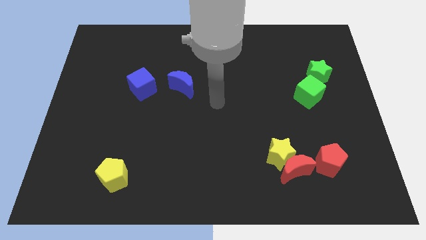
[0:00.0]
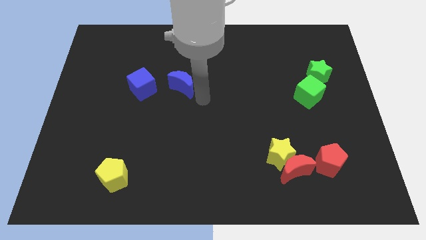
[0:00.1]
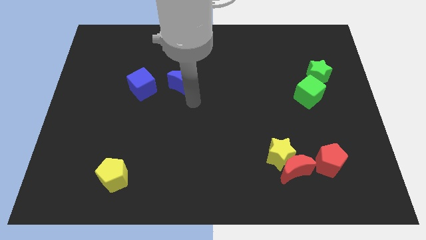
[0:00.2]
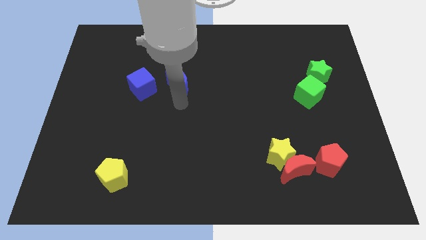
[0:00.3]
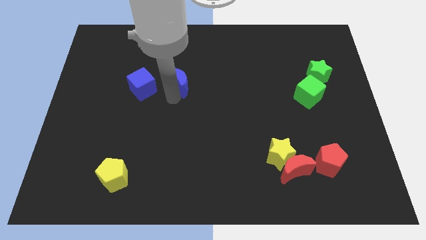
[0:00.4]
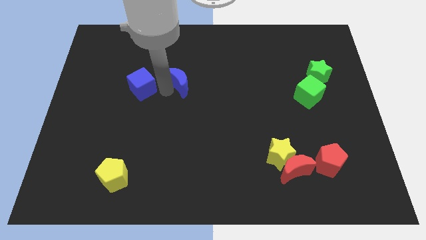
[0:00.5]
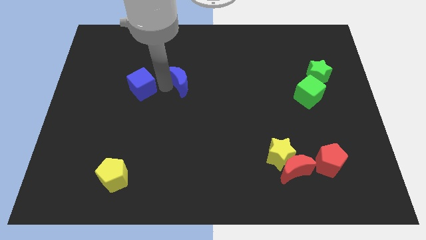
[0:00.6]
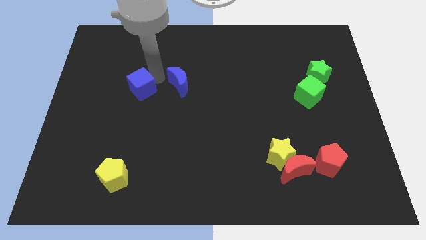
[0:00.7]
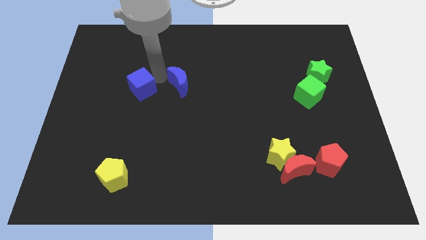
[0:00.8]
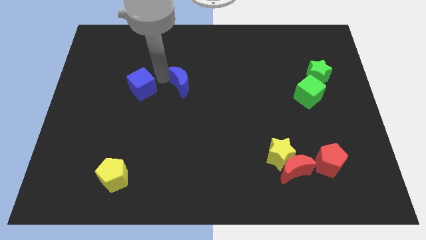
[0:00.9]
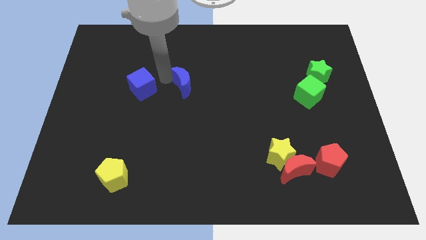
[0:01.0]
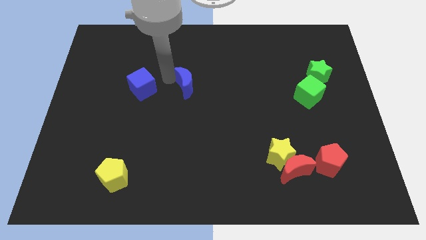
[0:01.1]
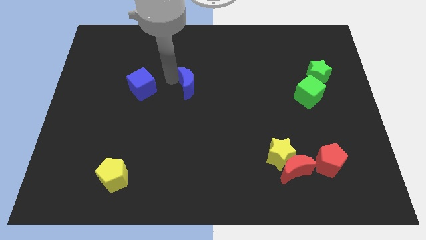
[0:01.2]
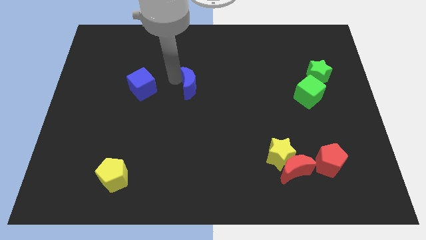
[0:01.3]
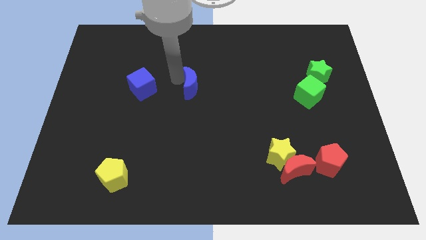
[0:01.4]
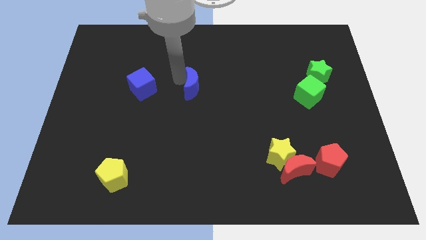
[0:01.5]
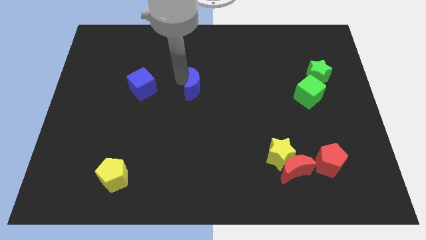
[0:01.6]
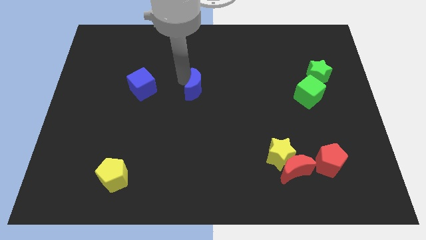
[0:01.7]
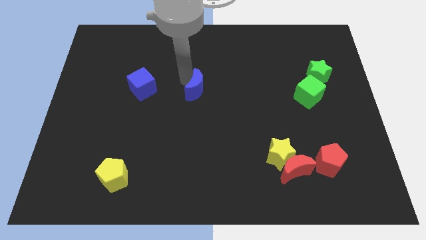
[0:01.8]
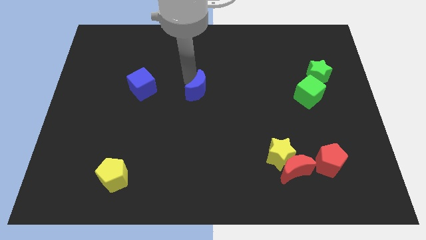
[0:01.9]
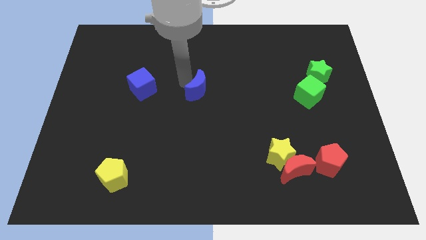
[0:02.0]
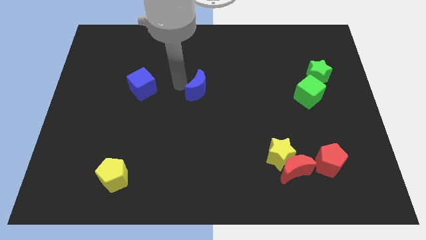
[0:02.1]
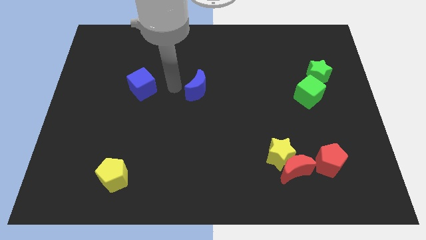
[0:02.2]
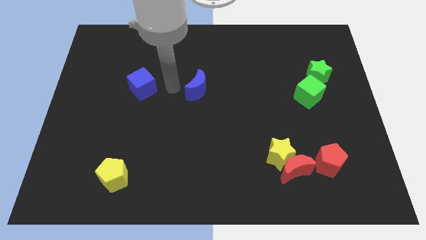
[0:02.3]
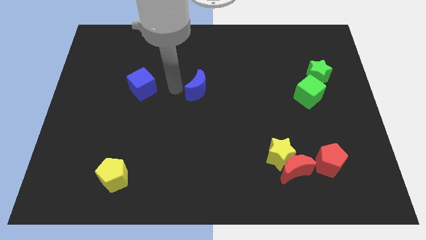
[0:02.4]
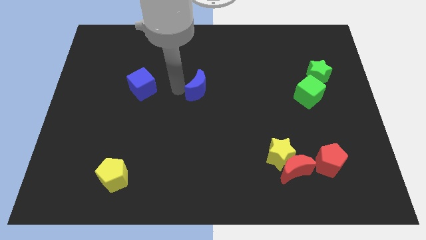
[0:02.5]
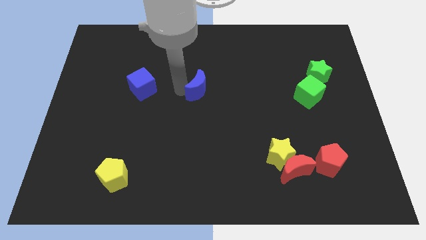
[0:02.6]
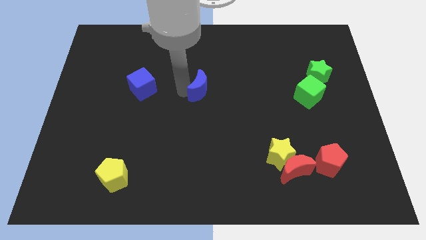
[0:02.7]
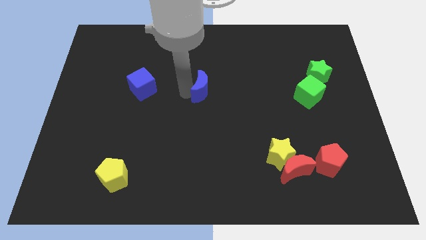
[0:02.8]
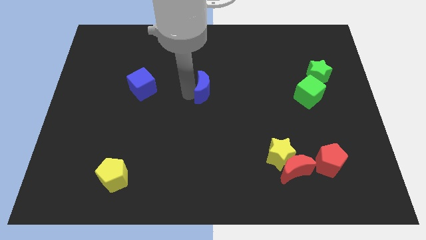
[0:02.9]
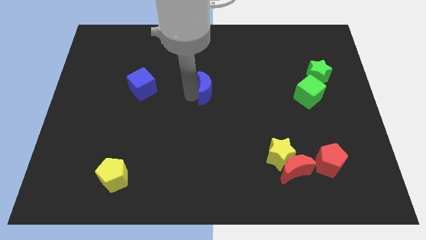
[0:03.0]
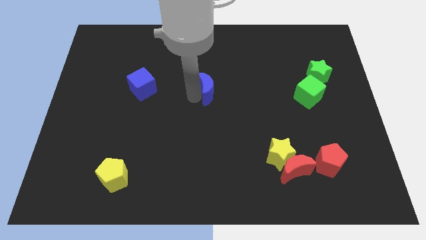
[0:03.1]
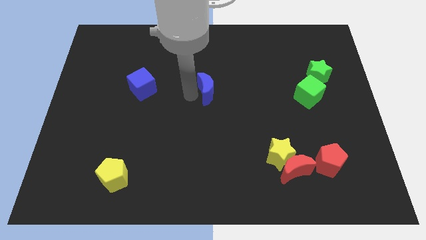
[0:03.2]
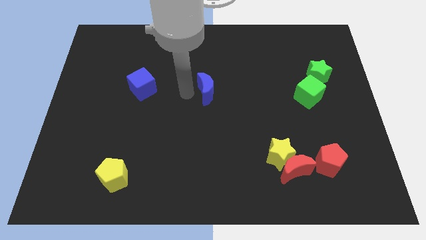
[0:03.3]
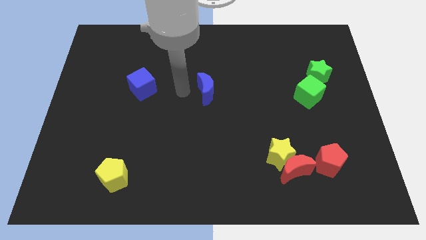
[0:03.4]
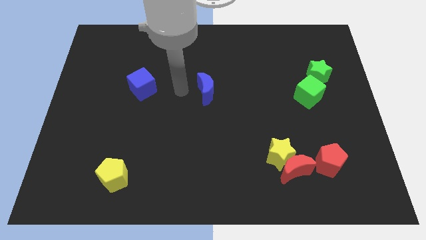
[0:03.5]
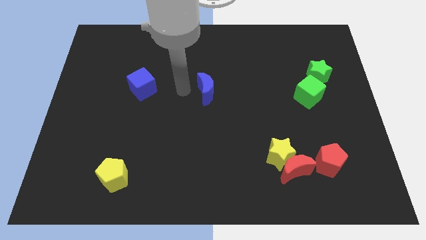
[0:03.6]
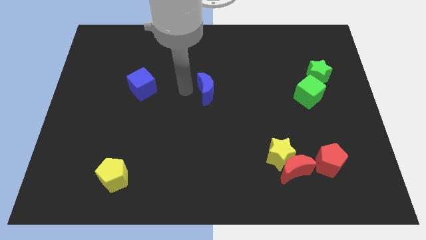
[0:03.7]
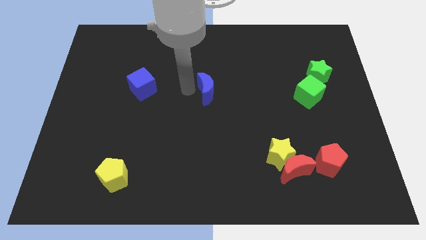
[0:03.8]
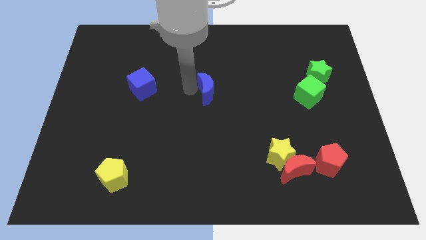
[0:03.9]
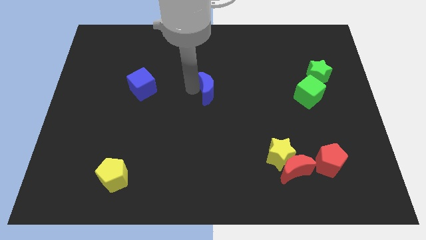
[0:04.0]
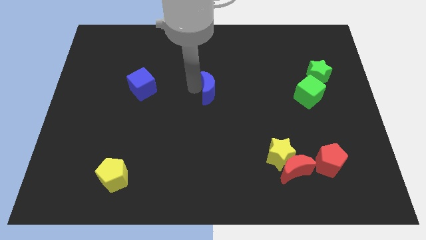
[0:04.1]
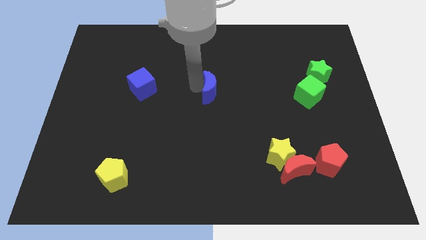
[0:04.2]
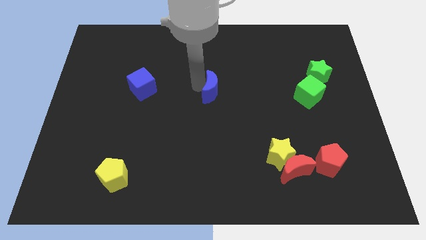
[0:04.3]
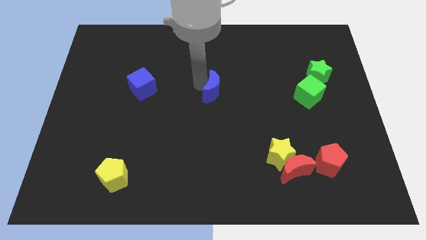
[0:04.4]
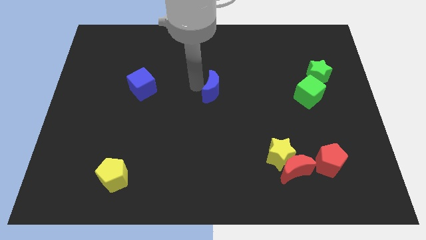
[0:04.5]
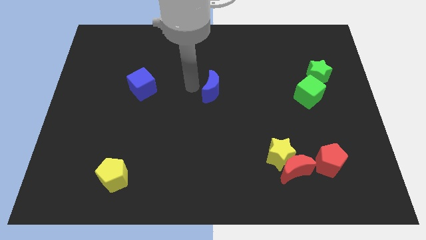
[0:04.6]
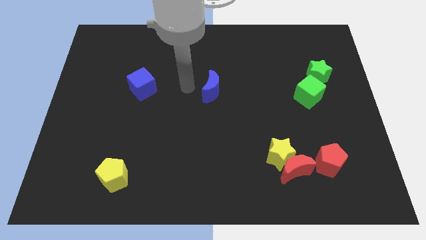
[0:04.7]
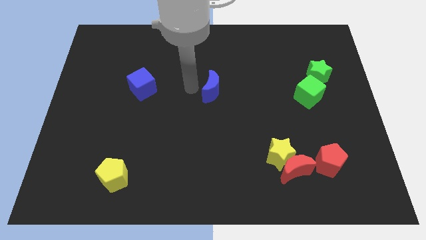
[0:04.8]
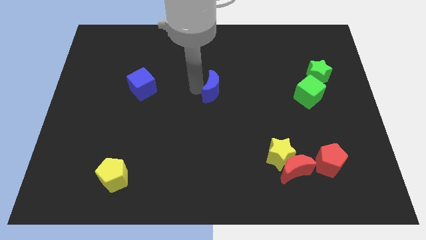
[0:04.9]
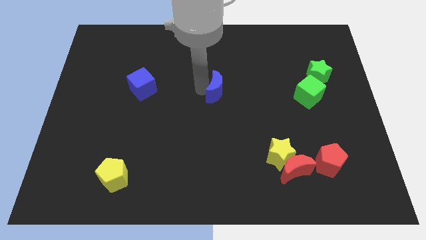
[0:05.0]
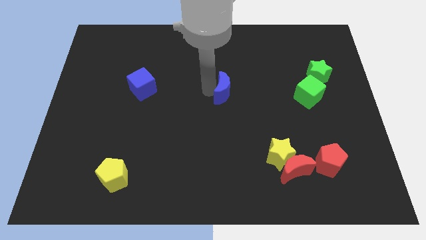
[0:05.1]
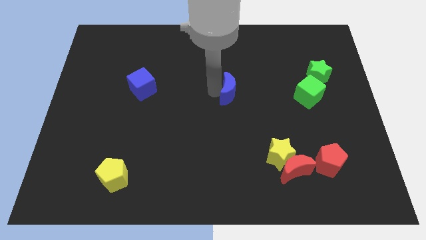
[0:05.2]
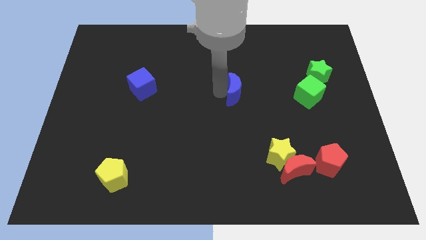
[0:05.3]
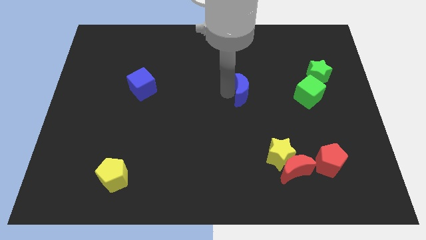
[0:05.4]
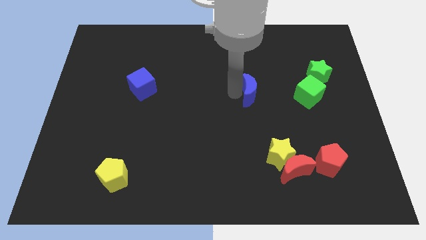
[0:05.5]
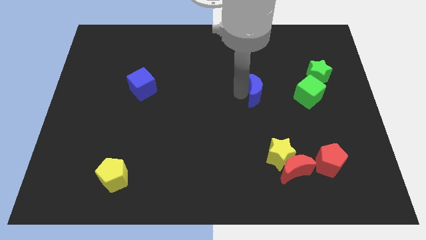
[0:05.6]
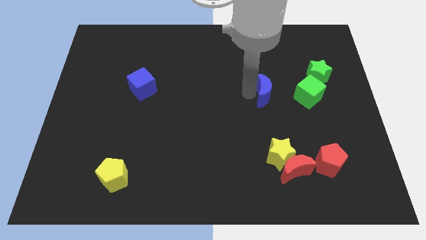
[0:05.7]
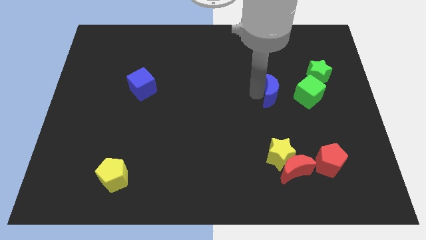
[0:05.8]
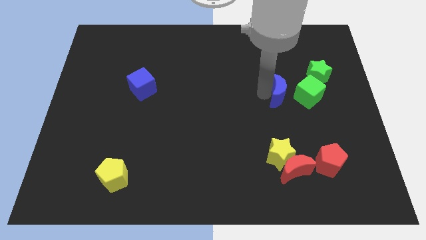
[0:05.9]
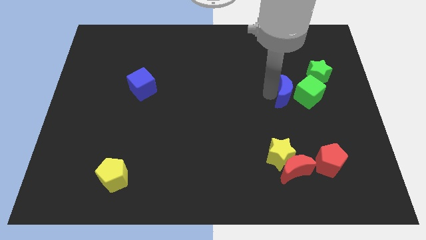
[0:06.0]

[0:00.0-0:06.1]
push the blue moon close to the green cube

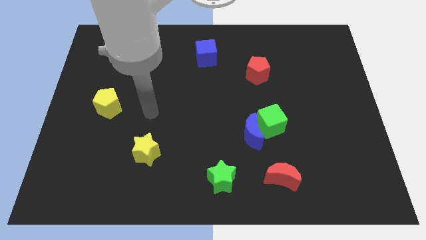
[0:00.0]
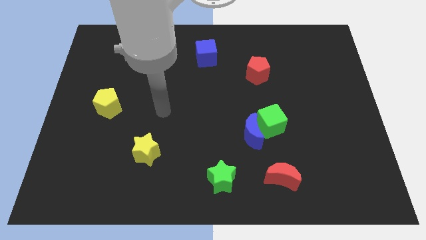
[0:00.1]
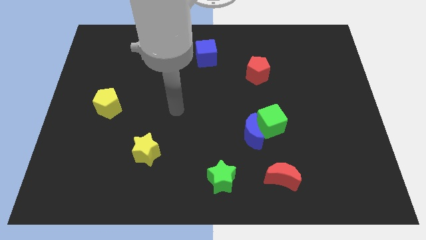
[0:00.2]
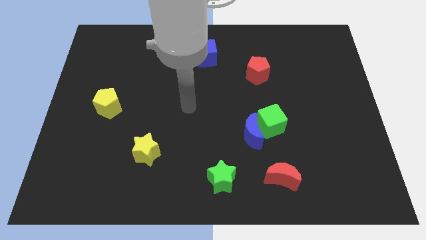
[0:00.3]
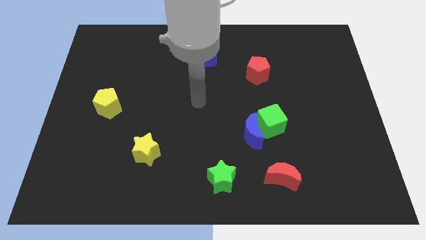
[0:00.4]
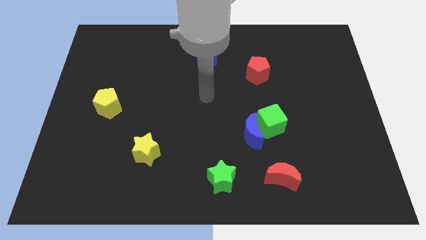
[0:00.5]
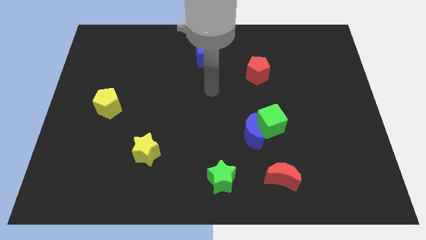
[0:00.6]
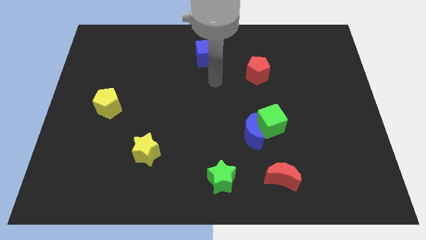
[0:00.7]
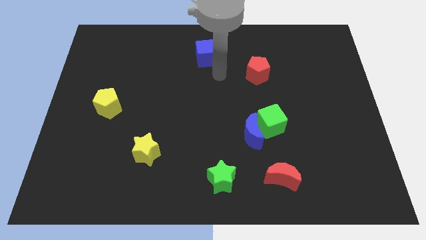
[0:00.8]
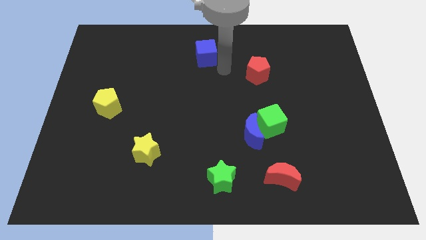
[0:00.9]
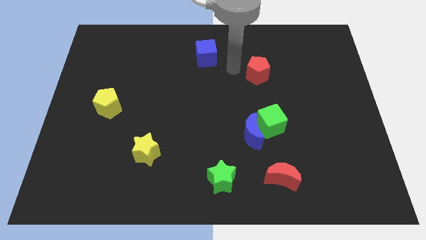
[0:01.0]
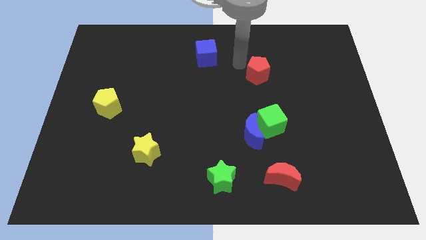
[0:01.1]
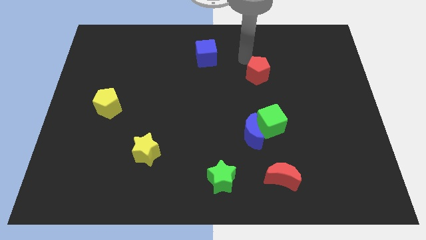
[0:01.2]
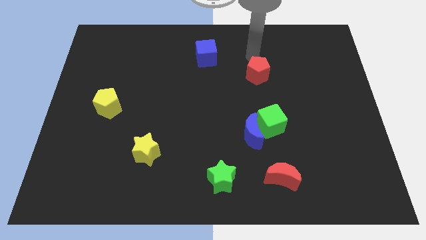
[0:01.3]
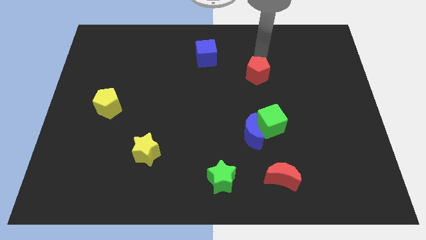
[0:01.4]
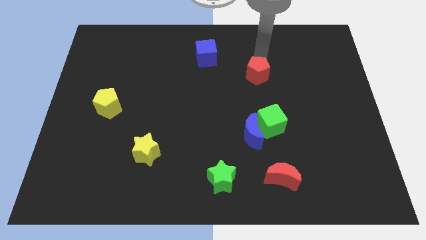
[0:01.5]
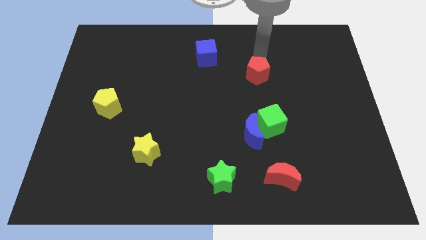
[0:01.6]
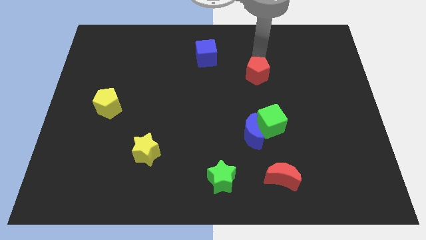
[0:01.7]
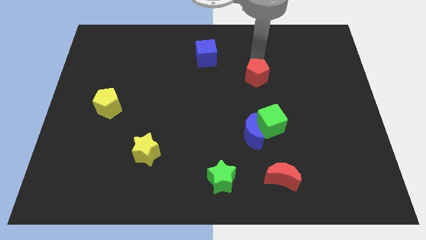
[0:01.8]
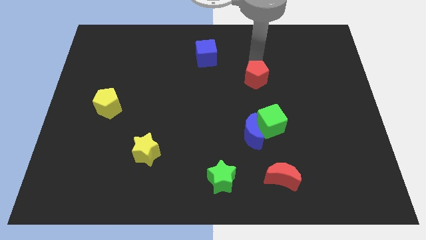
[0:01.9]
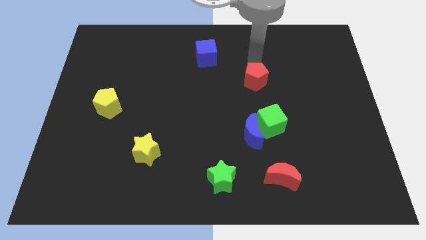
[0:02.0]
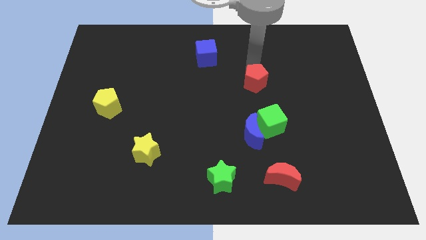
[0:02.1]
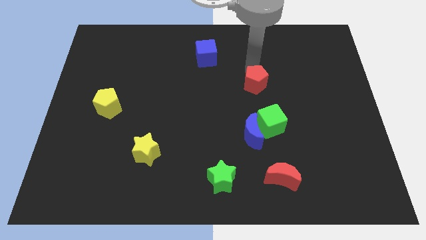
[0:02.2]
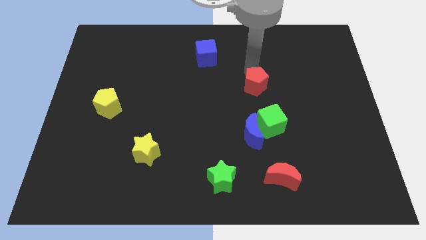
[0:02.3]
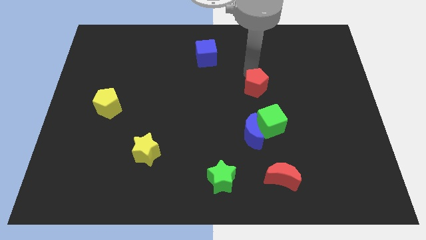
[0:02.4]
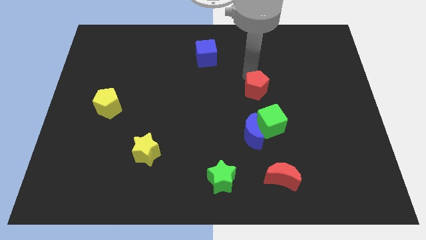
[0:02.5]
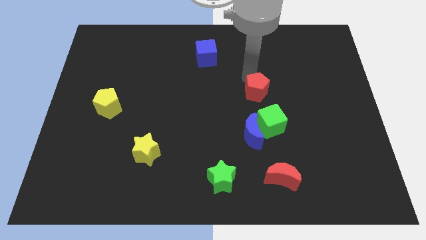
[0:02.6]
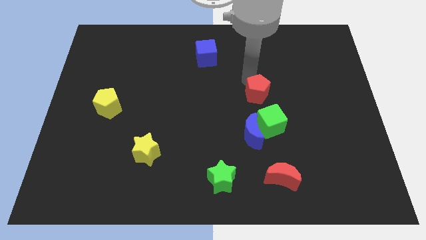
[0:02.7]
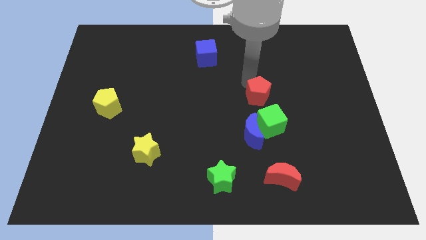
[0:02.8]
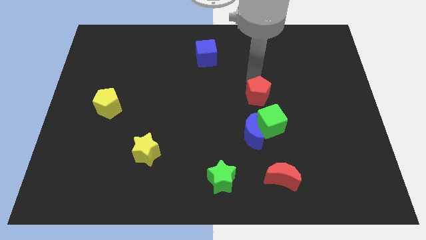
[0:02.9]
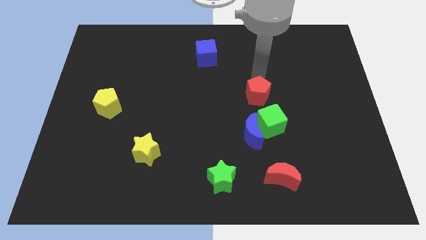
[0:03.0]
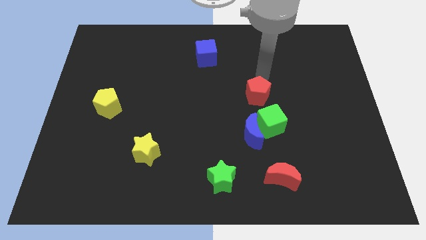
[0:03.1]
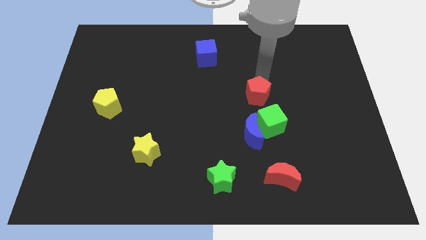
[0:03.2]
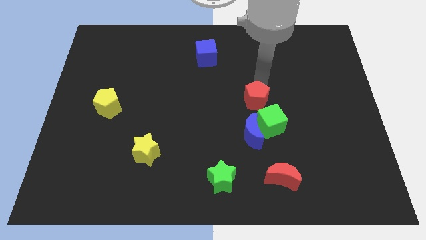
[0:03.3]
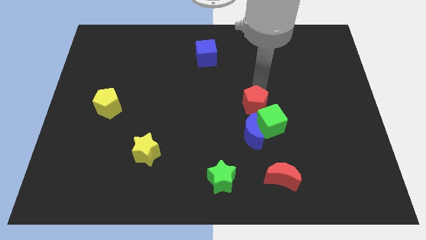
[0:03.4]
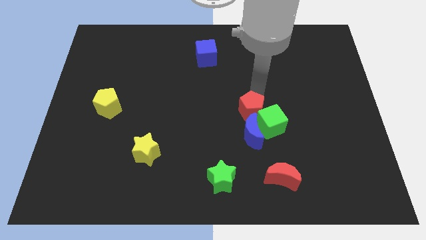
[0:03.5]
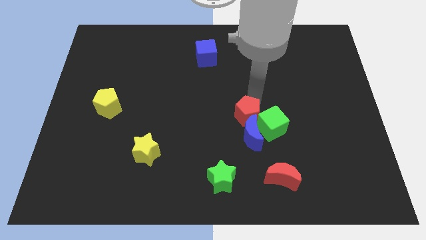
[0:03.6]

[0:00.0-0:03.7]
slide the red pentagon to the blue moon
